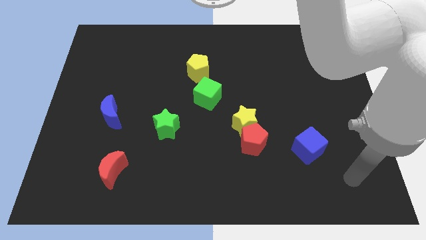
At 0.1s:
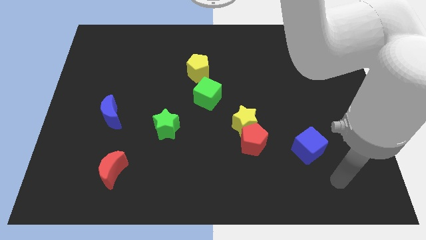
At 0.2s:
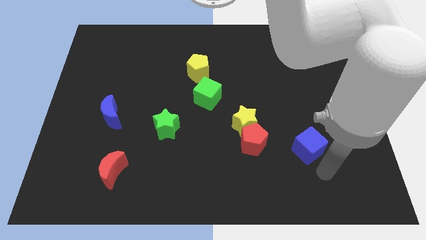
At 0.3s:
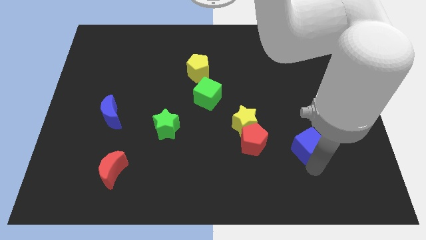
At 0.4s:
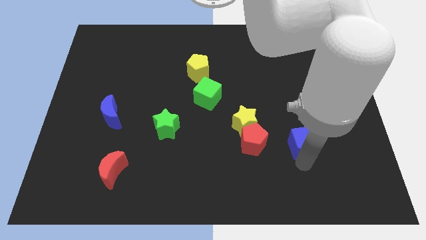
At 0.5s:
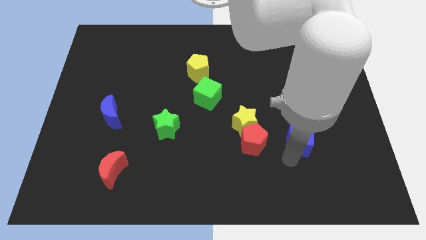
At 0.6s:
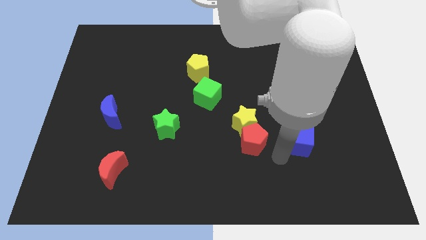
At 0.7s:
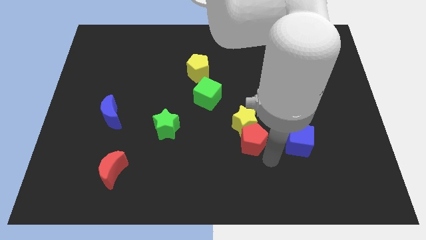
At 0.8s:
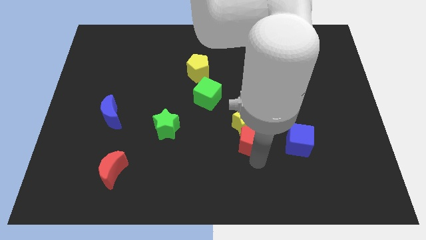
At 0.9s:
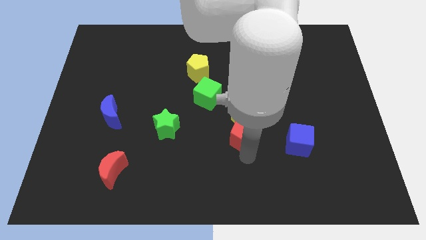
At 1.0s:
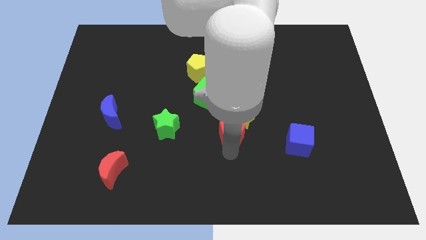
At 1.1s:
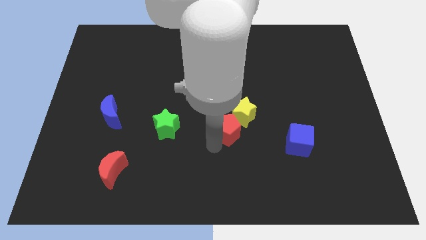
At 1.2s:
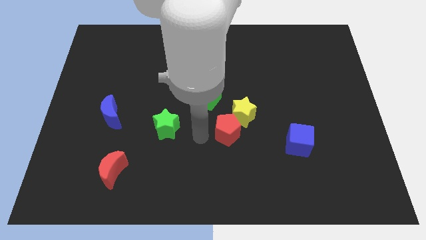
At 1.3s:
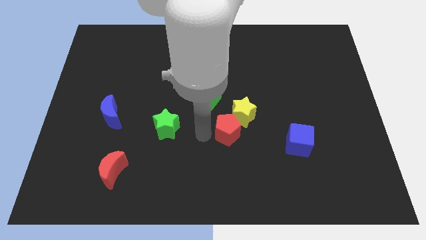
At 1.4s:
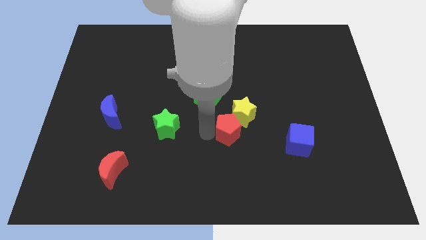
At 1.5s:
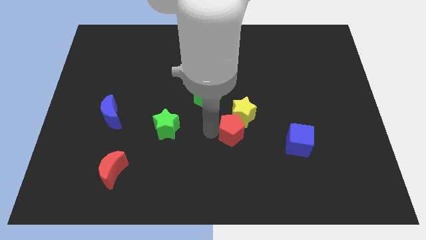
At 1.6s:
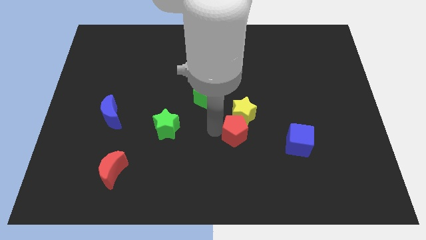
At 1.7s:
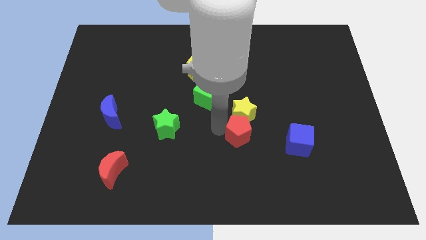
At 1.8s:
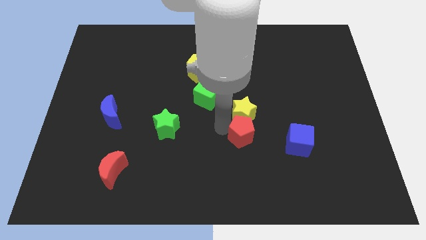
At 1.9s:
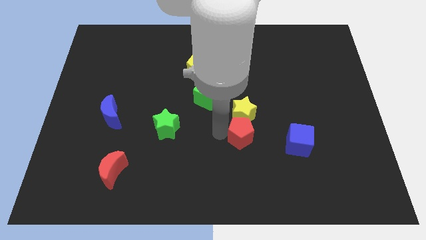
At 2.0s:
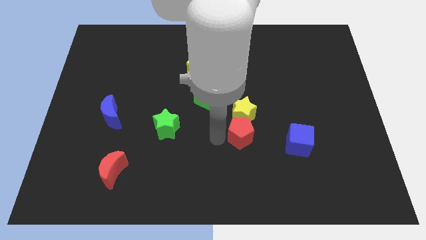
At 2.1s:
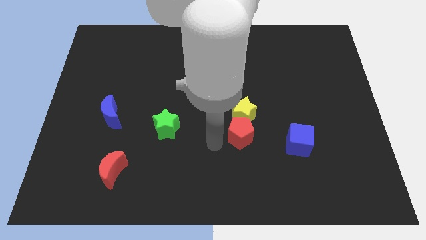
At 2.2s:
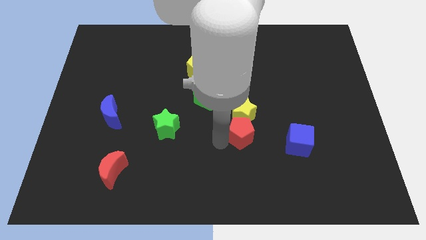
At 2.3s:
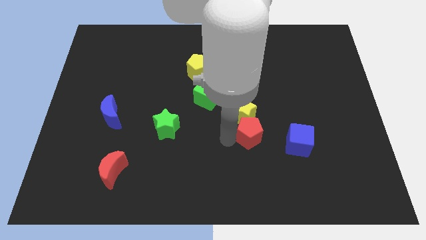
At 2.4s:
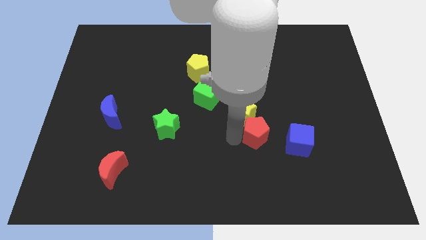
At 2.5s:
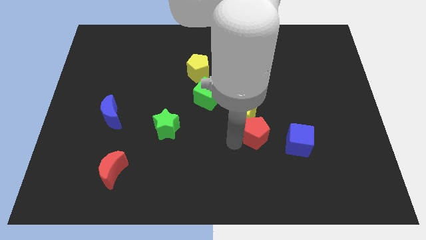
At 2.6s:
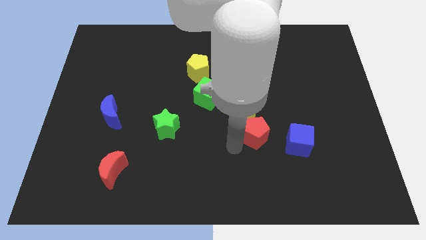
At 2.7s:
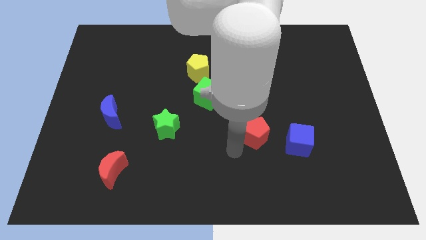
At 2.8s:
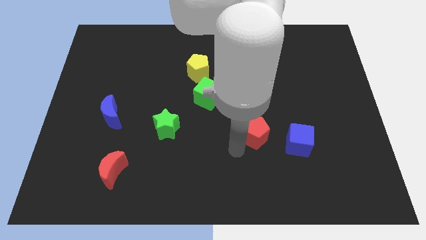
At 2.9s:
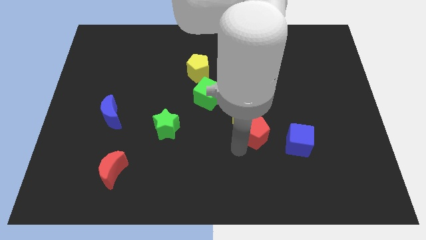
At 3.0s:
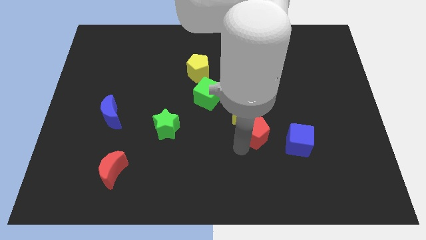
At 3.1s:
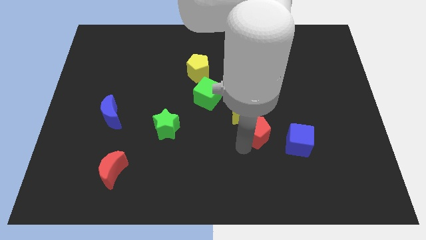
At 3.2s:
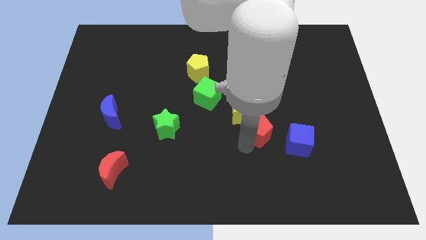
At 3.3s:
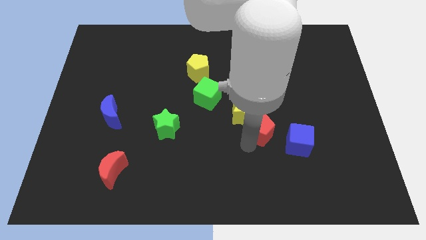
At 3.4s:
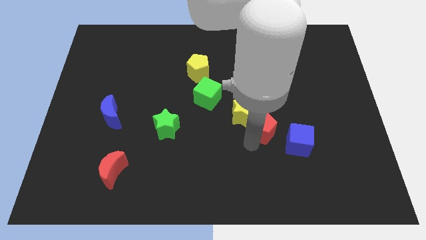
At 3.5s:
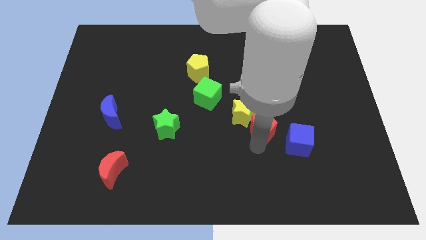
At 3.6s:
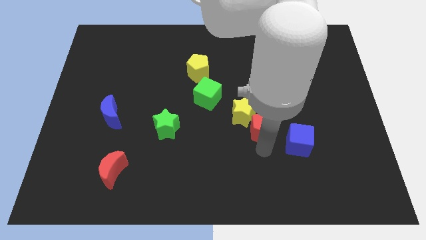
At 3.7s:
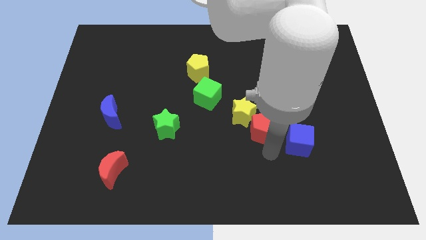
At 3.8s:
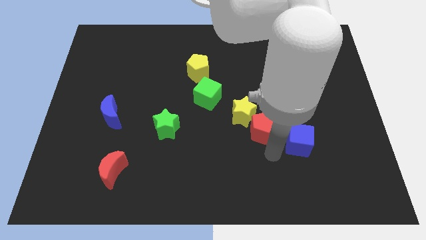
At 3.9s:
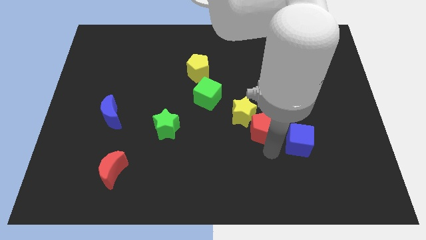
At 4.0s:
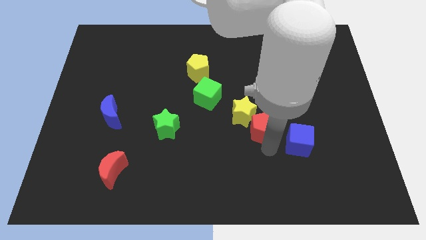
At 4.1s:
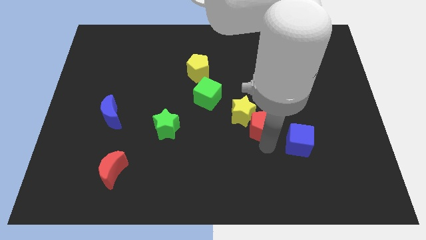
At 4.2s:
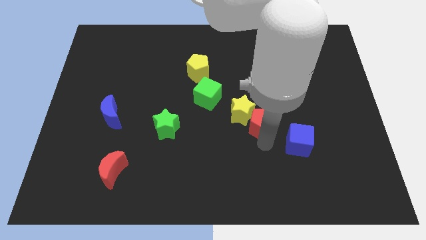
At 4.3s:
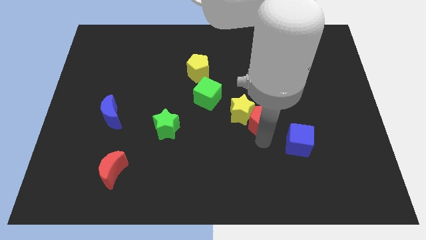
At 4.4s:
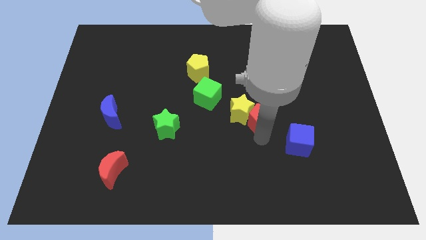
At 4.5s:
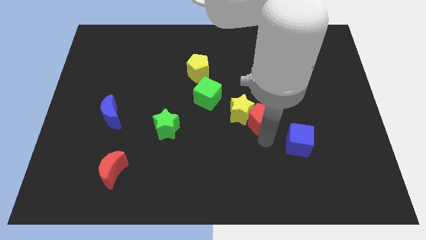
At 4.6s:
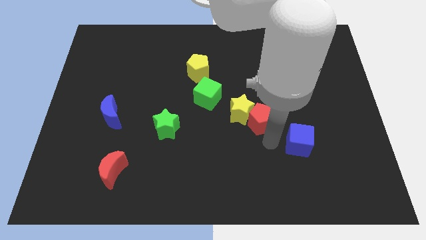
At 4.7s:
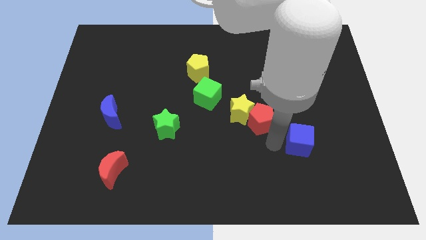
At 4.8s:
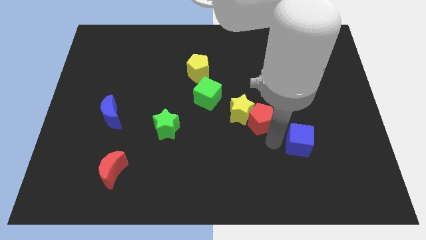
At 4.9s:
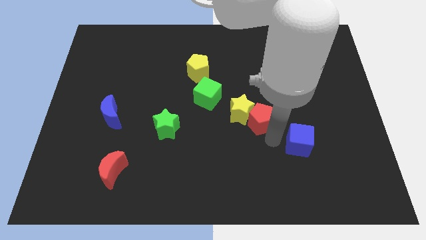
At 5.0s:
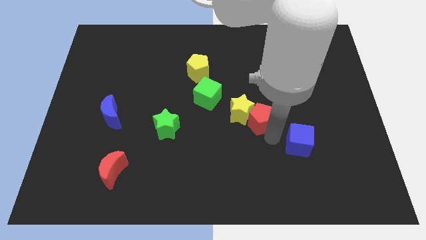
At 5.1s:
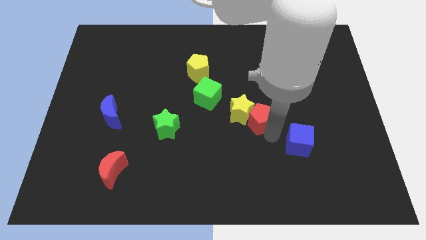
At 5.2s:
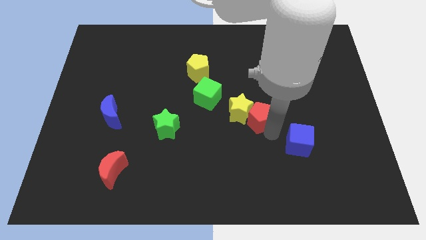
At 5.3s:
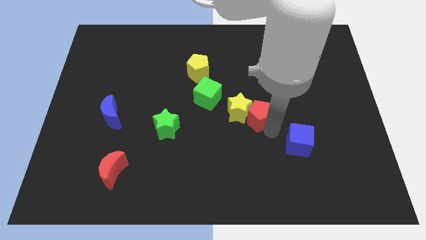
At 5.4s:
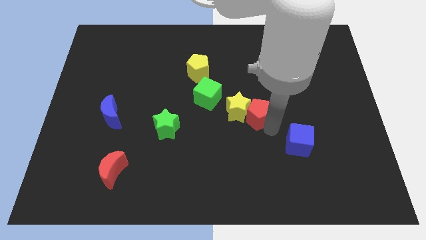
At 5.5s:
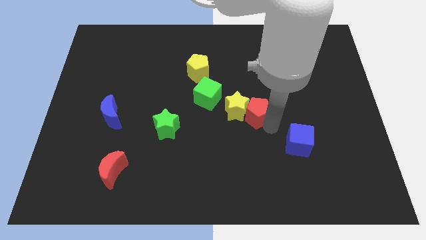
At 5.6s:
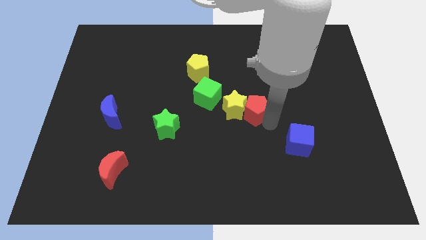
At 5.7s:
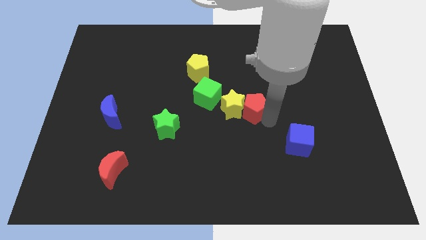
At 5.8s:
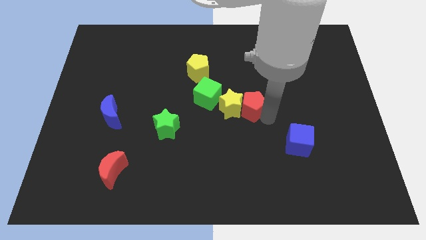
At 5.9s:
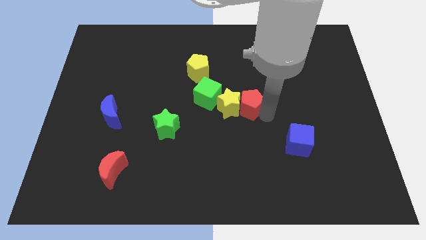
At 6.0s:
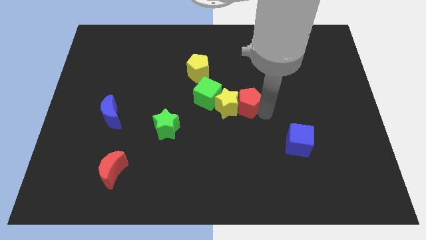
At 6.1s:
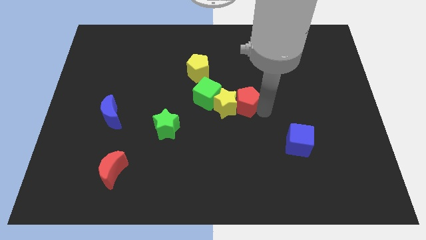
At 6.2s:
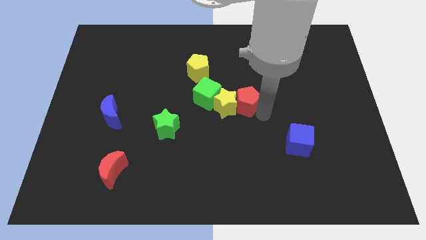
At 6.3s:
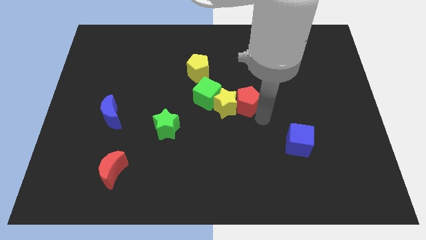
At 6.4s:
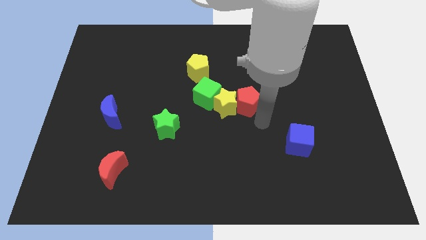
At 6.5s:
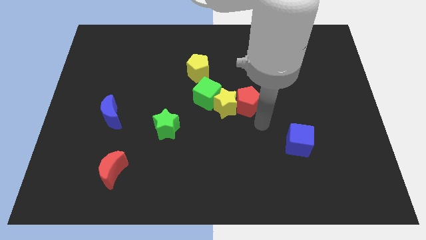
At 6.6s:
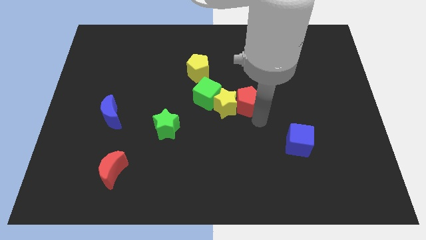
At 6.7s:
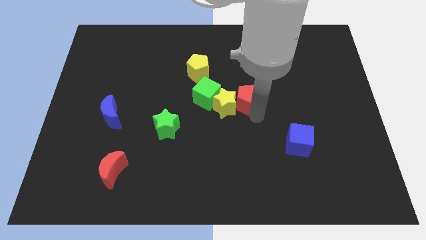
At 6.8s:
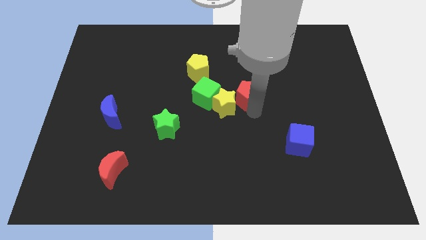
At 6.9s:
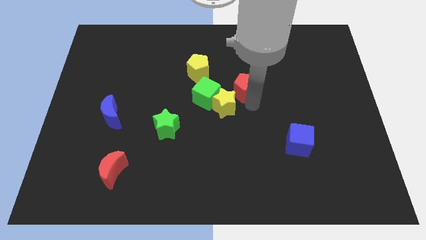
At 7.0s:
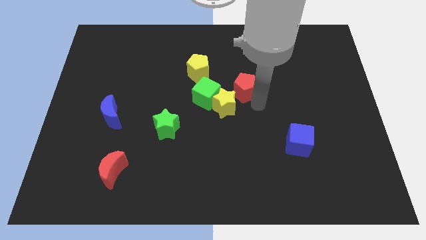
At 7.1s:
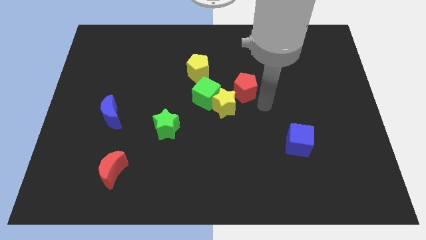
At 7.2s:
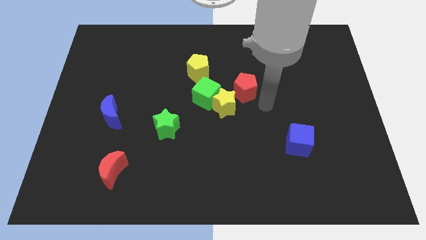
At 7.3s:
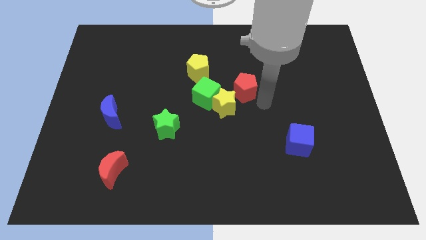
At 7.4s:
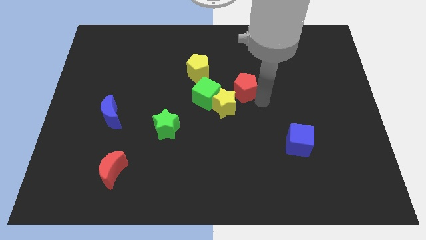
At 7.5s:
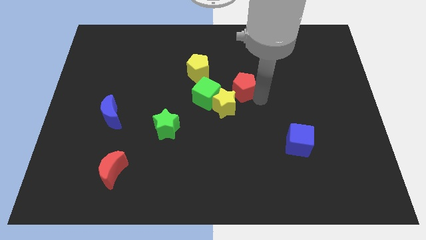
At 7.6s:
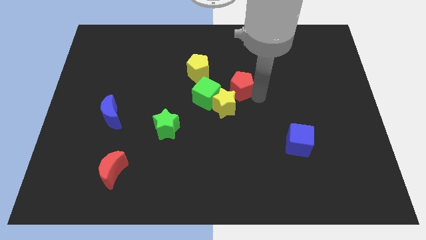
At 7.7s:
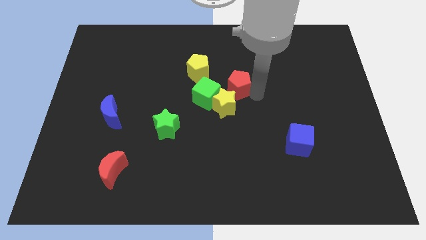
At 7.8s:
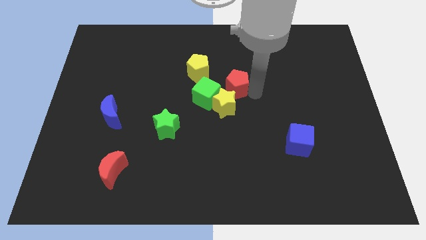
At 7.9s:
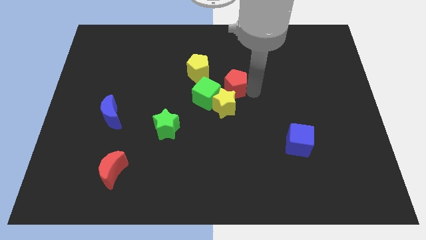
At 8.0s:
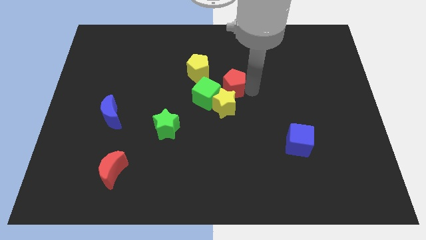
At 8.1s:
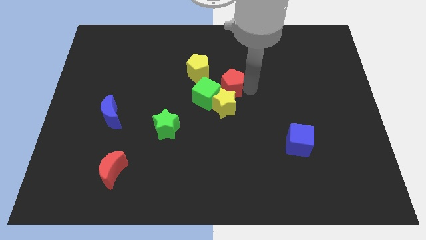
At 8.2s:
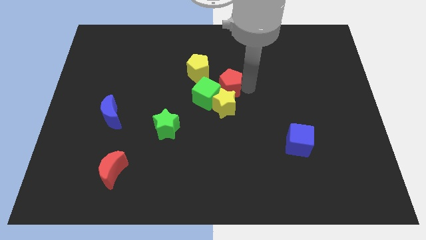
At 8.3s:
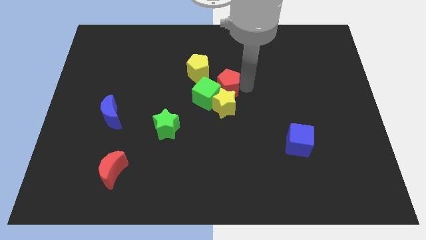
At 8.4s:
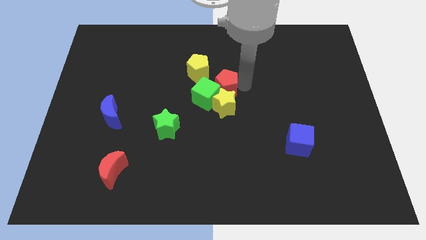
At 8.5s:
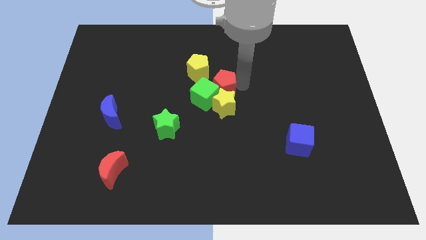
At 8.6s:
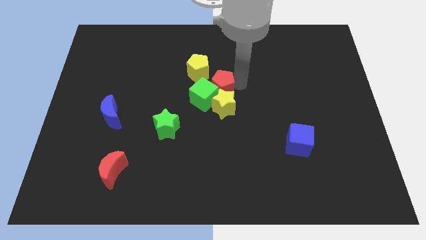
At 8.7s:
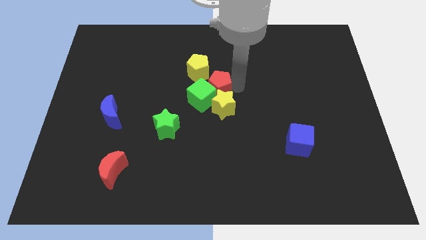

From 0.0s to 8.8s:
move the red pentagon to the top of the green cube
